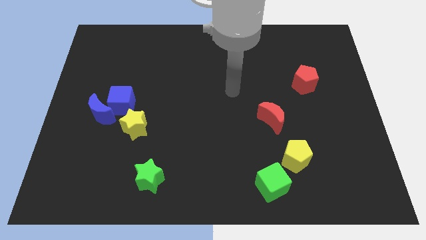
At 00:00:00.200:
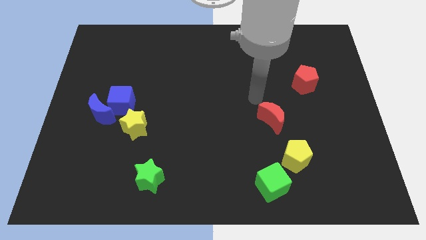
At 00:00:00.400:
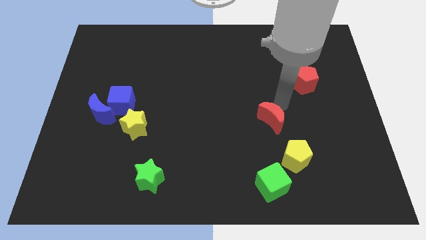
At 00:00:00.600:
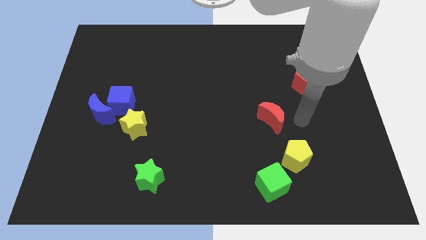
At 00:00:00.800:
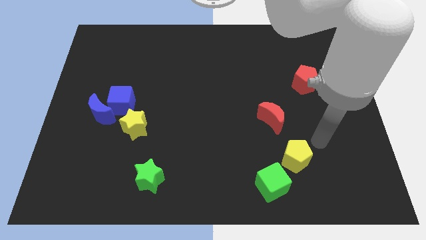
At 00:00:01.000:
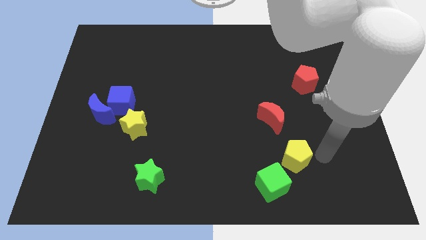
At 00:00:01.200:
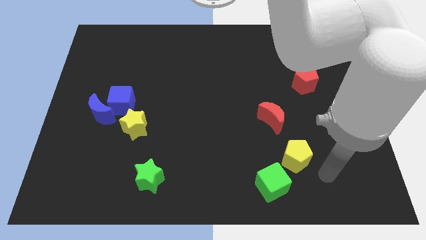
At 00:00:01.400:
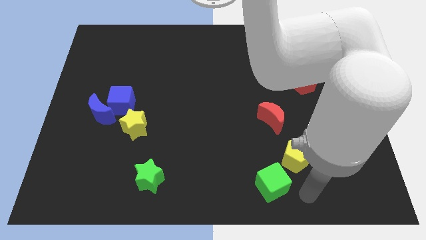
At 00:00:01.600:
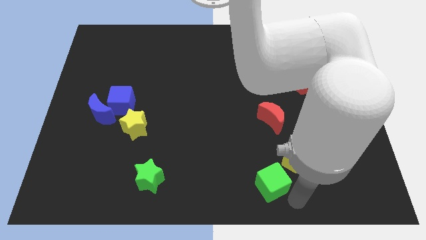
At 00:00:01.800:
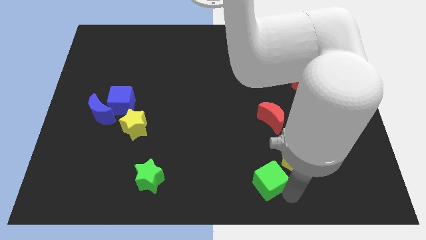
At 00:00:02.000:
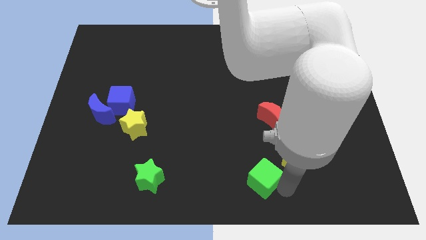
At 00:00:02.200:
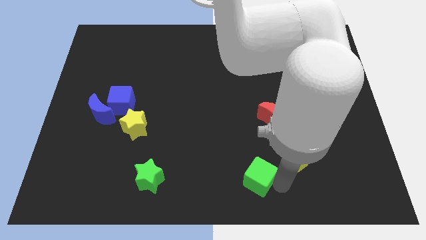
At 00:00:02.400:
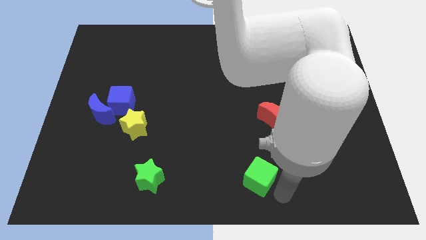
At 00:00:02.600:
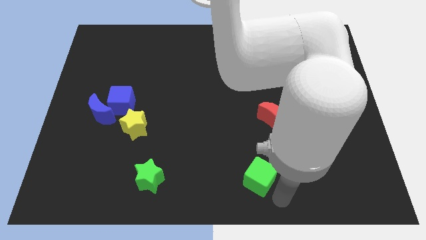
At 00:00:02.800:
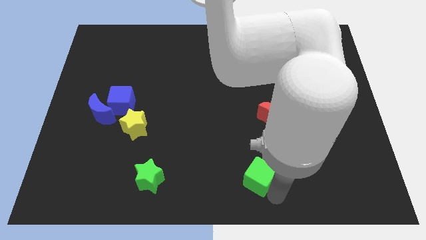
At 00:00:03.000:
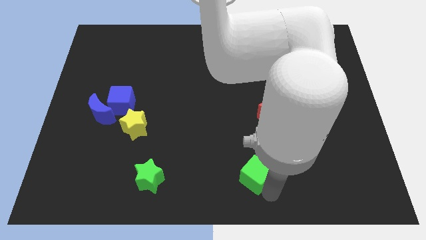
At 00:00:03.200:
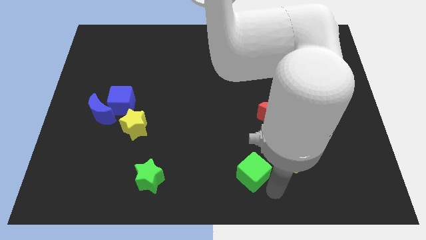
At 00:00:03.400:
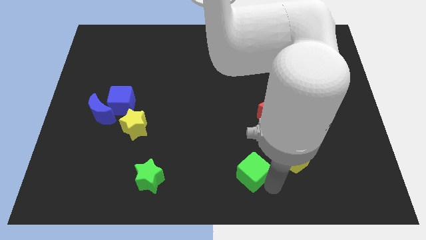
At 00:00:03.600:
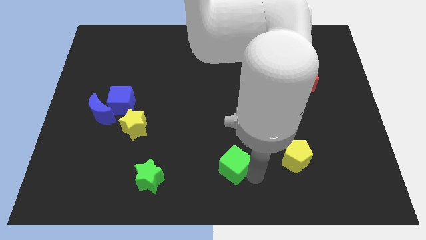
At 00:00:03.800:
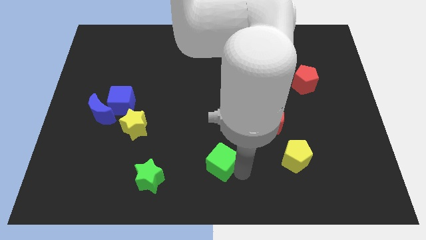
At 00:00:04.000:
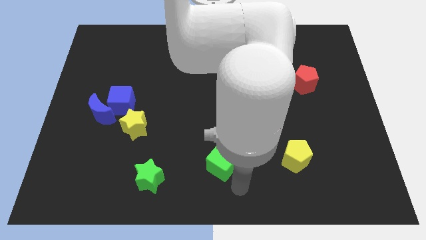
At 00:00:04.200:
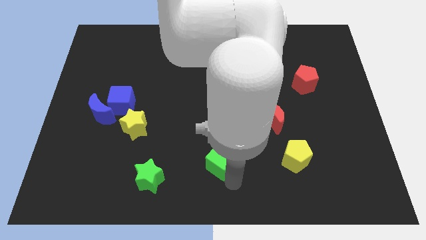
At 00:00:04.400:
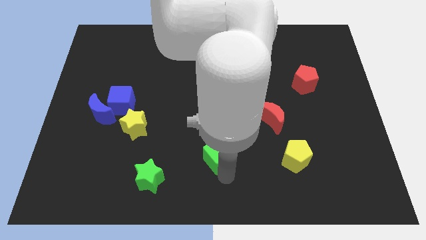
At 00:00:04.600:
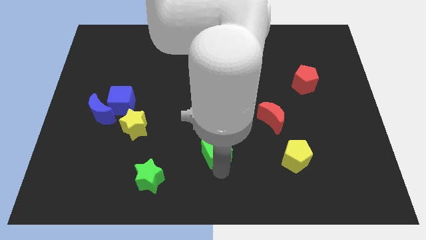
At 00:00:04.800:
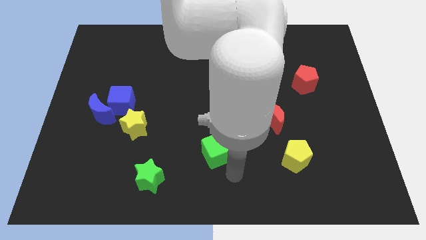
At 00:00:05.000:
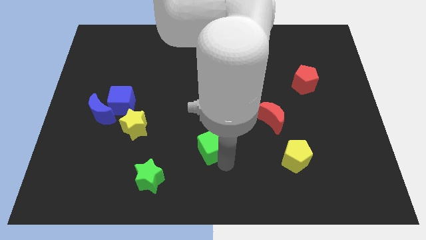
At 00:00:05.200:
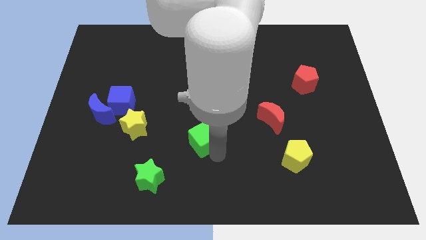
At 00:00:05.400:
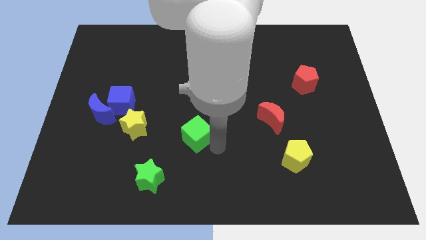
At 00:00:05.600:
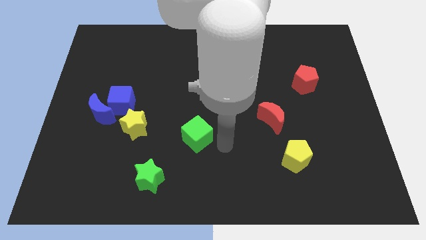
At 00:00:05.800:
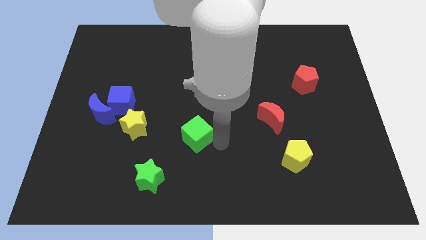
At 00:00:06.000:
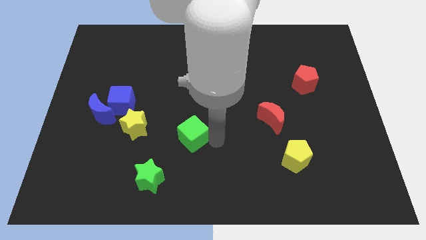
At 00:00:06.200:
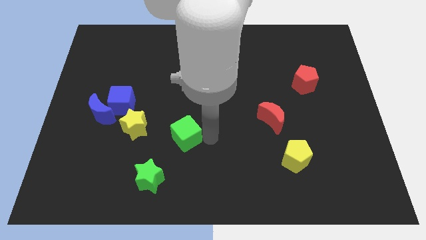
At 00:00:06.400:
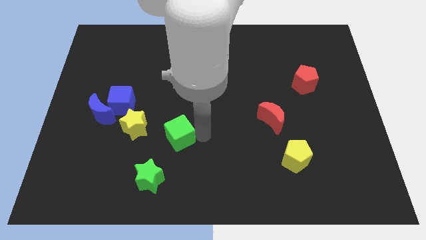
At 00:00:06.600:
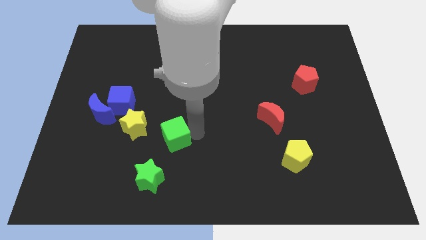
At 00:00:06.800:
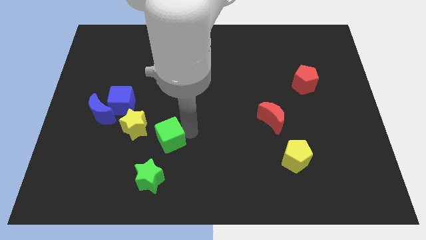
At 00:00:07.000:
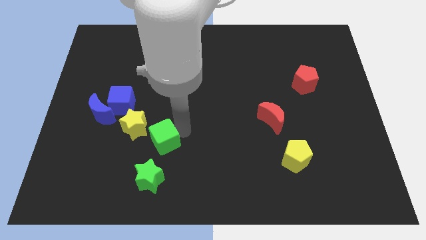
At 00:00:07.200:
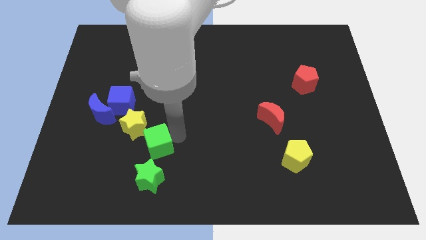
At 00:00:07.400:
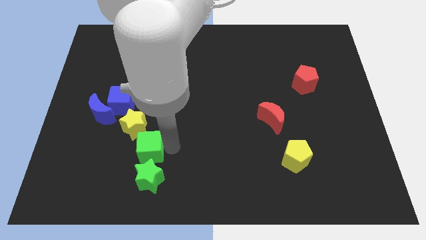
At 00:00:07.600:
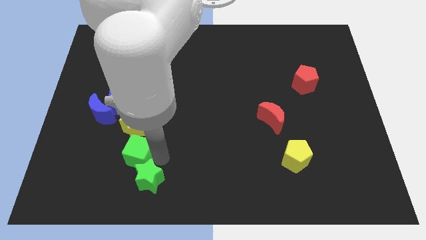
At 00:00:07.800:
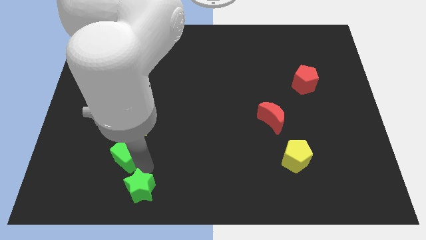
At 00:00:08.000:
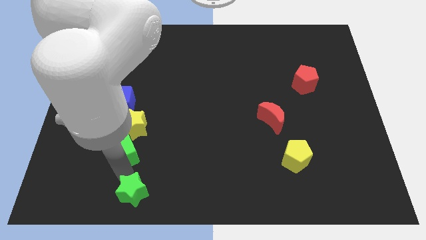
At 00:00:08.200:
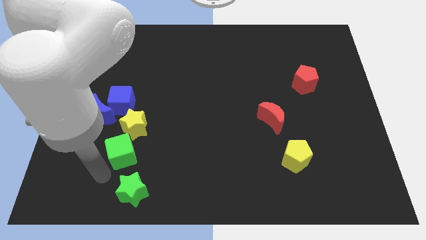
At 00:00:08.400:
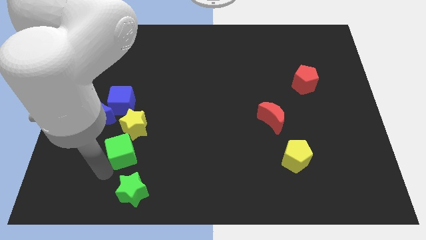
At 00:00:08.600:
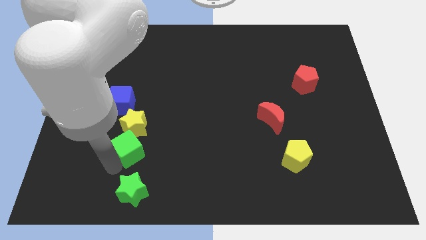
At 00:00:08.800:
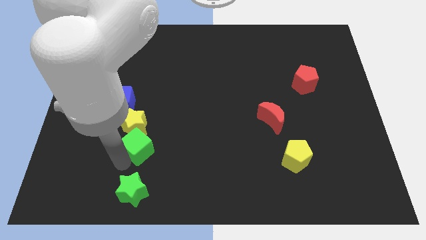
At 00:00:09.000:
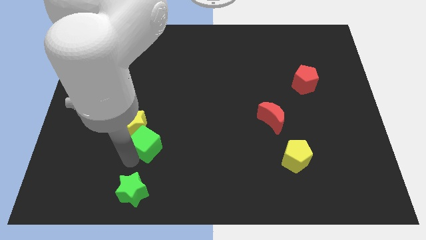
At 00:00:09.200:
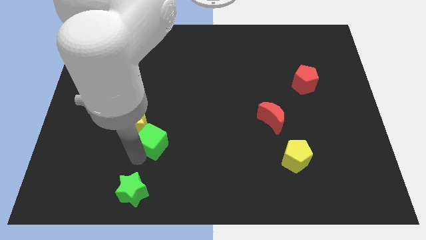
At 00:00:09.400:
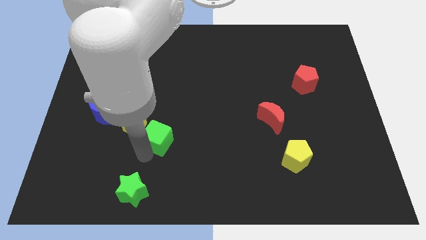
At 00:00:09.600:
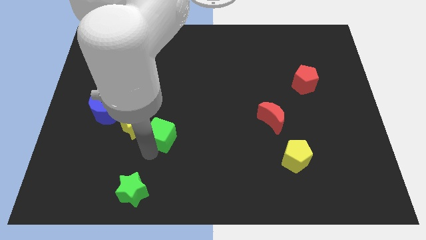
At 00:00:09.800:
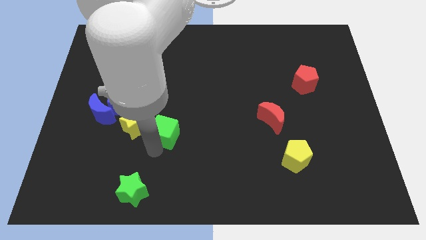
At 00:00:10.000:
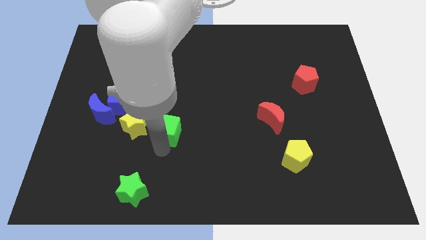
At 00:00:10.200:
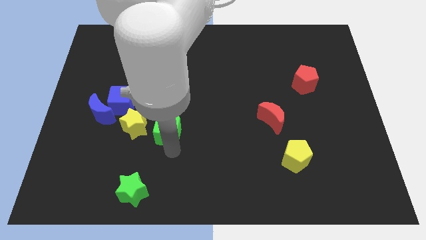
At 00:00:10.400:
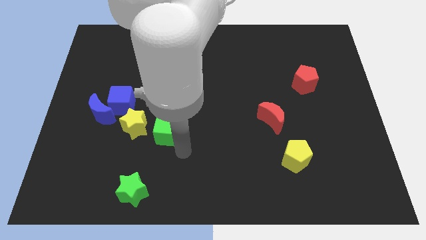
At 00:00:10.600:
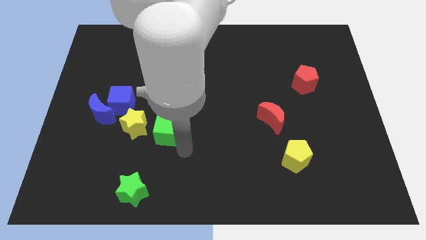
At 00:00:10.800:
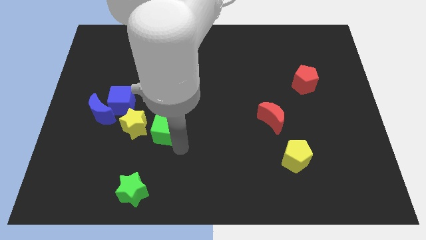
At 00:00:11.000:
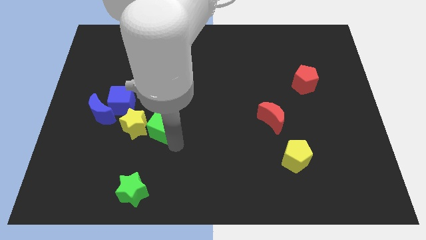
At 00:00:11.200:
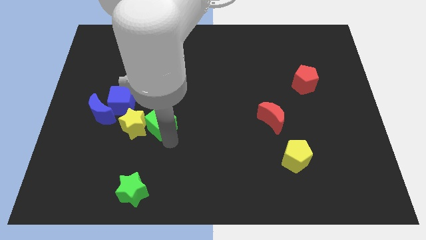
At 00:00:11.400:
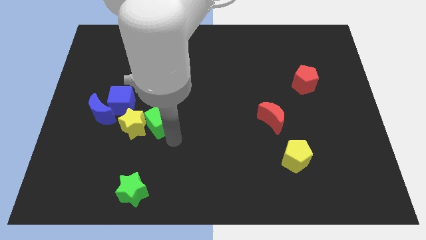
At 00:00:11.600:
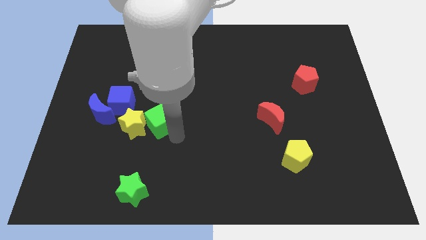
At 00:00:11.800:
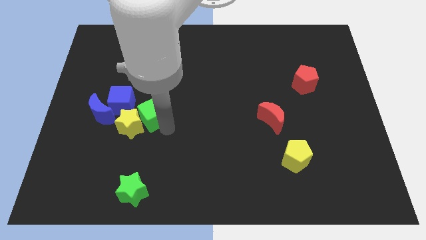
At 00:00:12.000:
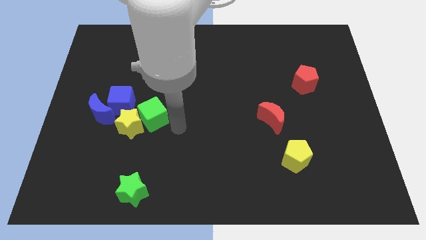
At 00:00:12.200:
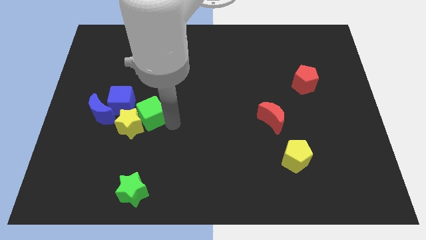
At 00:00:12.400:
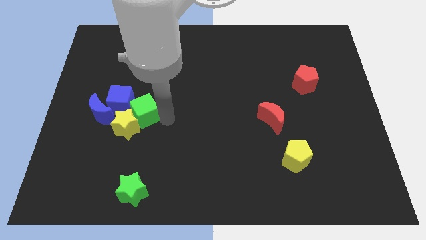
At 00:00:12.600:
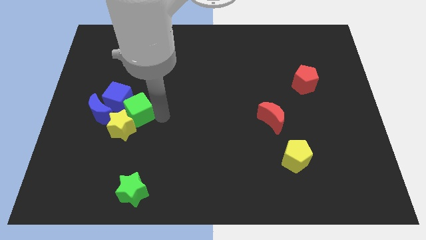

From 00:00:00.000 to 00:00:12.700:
put the green cube to the blue cube

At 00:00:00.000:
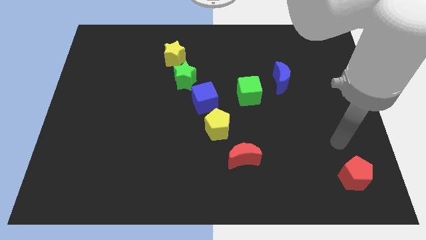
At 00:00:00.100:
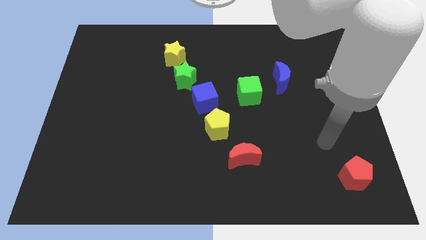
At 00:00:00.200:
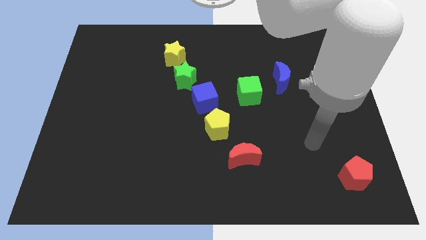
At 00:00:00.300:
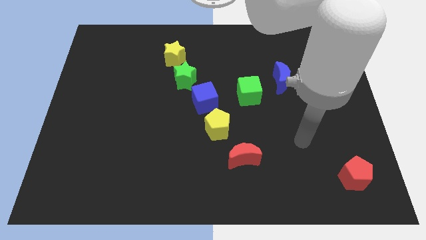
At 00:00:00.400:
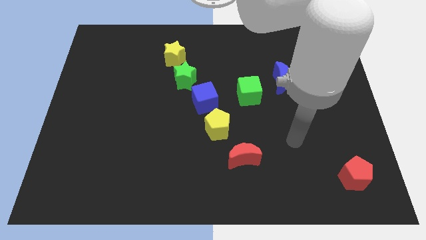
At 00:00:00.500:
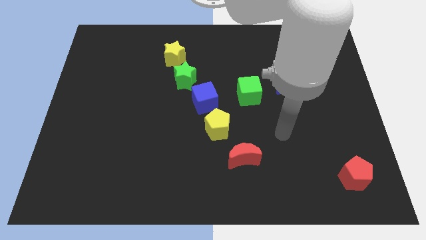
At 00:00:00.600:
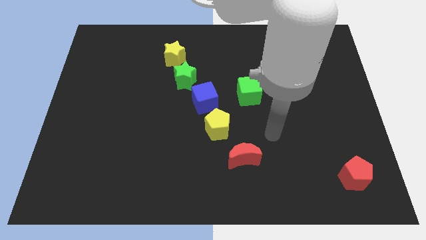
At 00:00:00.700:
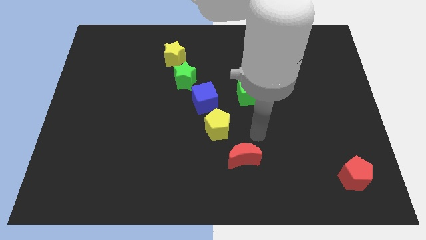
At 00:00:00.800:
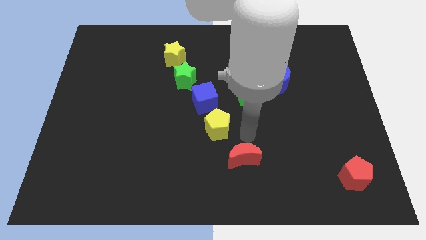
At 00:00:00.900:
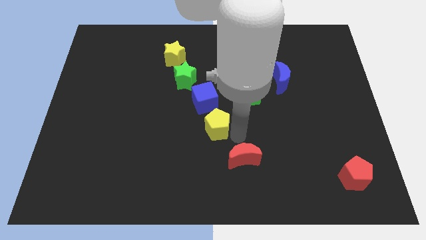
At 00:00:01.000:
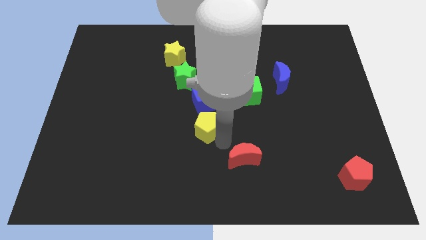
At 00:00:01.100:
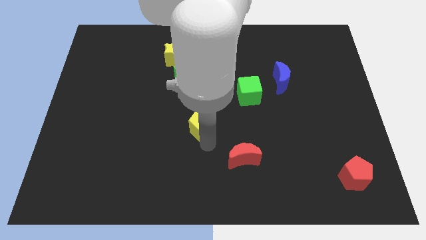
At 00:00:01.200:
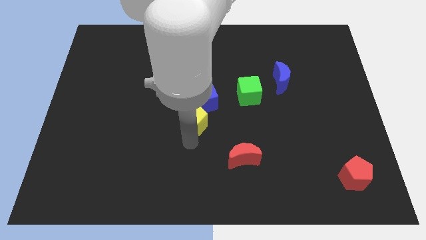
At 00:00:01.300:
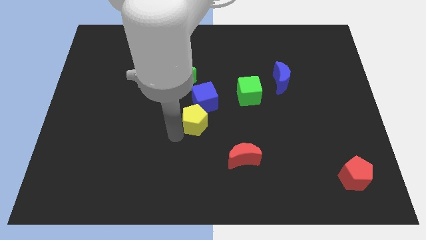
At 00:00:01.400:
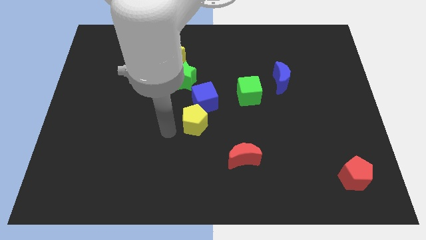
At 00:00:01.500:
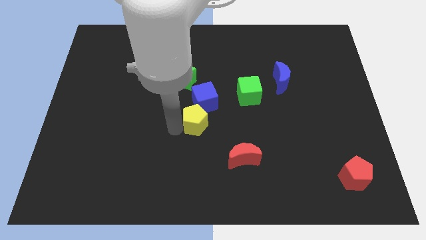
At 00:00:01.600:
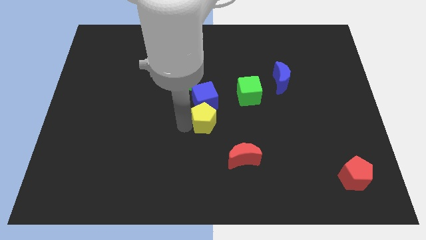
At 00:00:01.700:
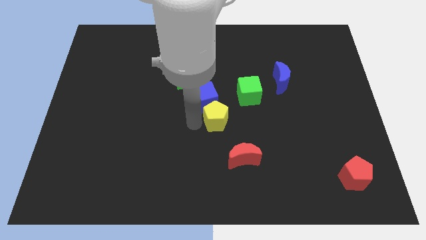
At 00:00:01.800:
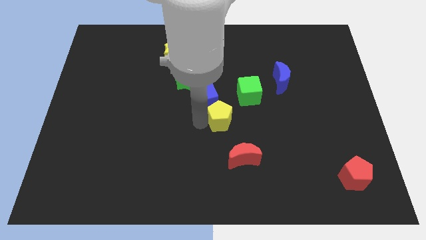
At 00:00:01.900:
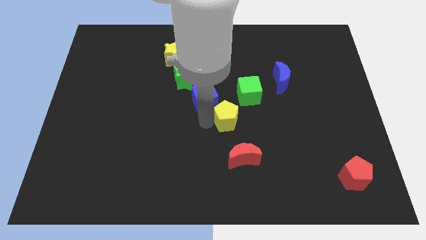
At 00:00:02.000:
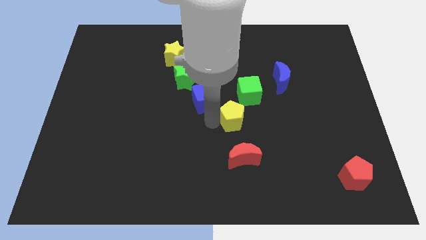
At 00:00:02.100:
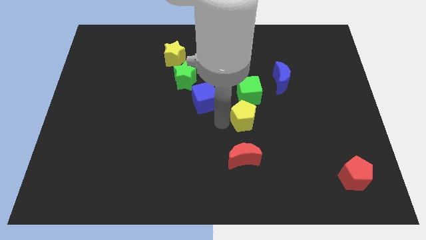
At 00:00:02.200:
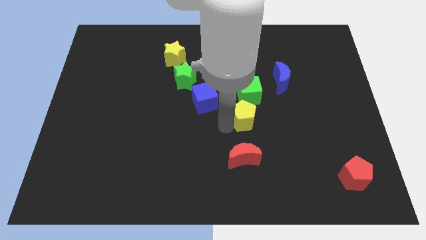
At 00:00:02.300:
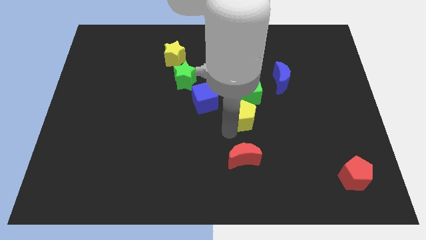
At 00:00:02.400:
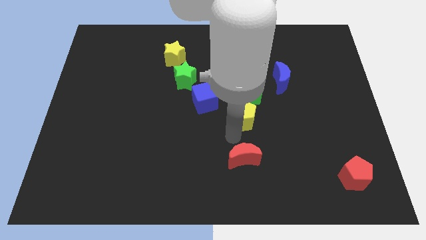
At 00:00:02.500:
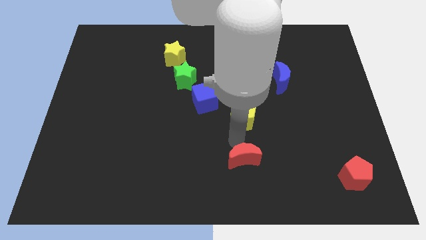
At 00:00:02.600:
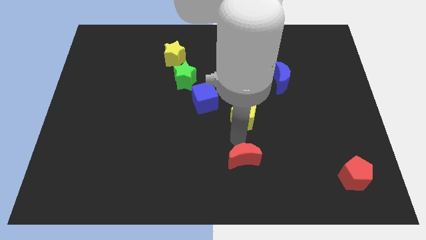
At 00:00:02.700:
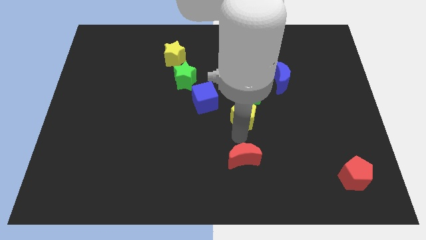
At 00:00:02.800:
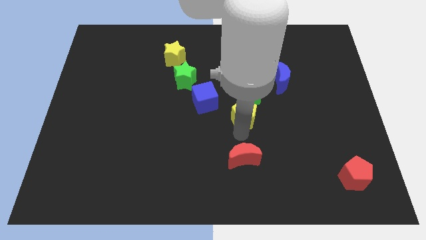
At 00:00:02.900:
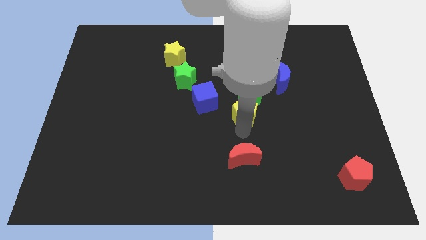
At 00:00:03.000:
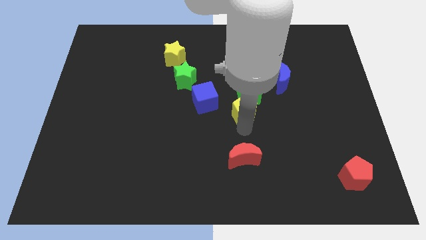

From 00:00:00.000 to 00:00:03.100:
push the yellow pentagon to the green cube
